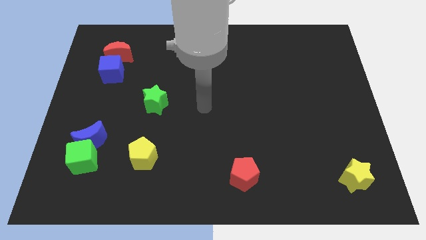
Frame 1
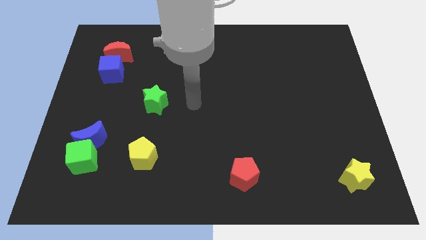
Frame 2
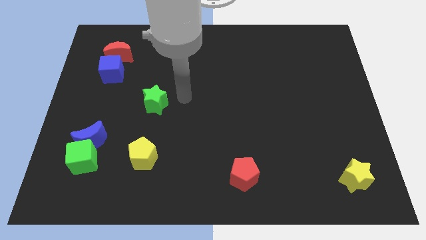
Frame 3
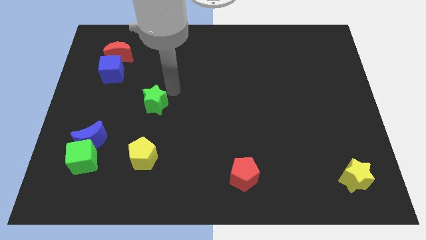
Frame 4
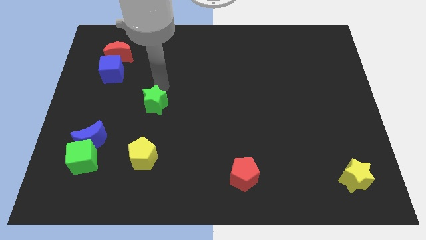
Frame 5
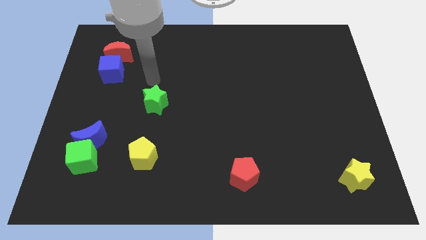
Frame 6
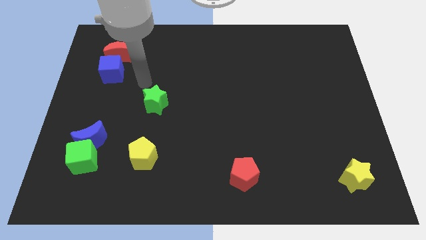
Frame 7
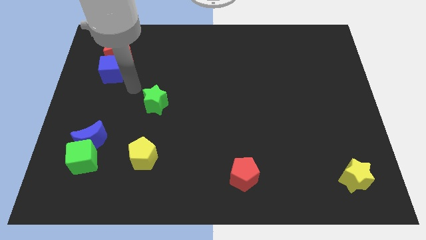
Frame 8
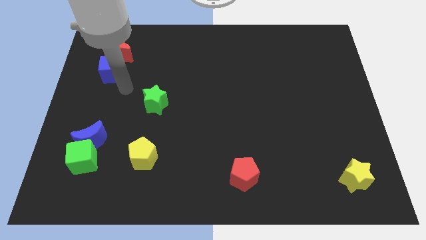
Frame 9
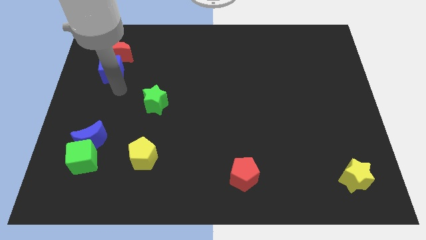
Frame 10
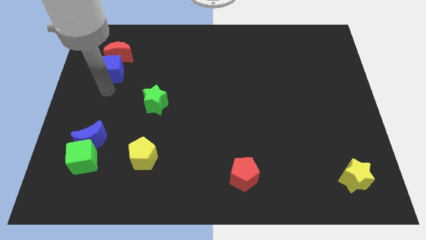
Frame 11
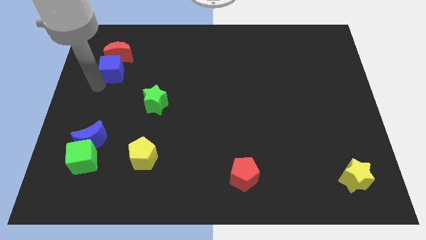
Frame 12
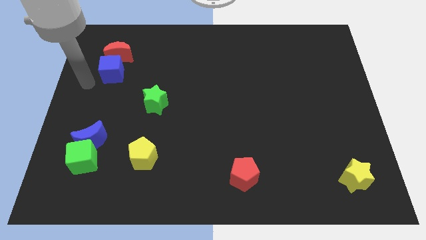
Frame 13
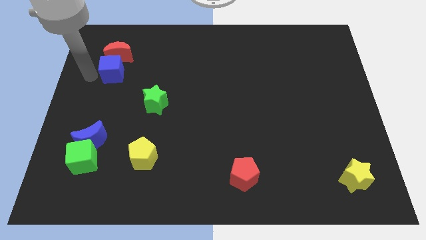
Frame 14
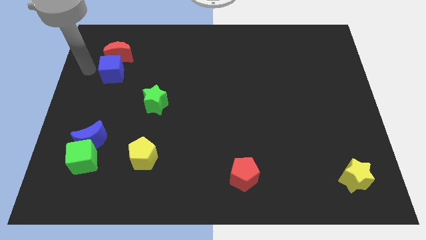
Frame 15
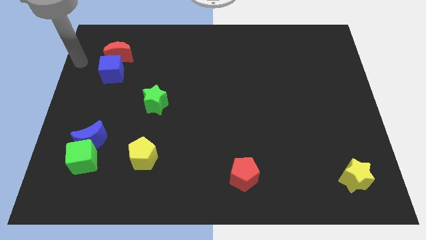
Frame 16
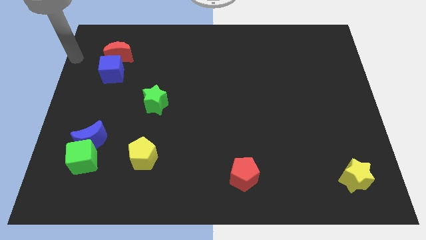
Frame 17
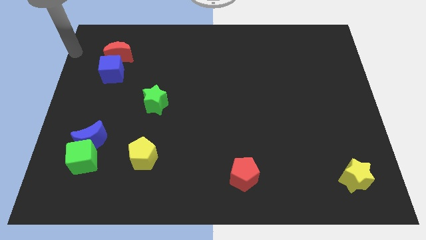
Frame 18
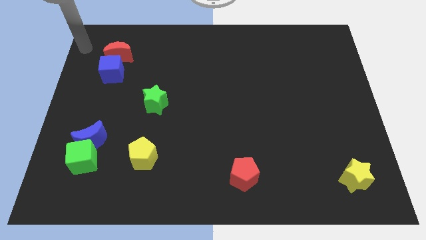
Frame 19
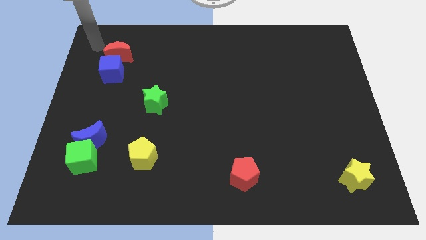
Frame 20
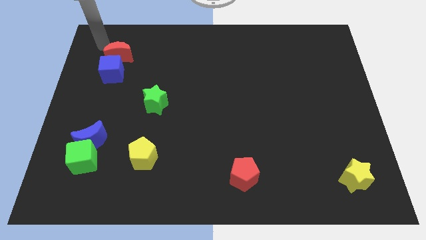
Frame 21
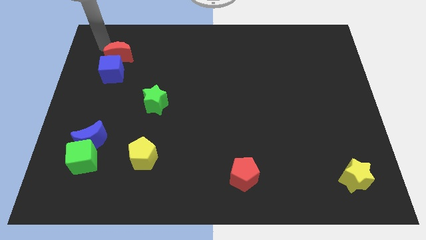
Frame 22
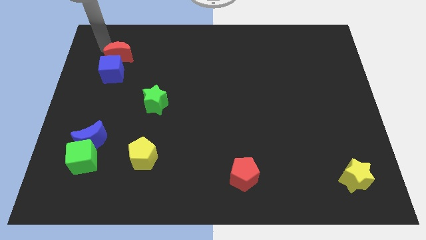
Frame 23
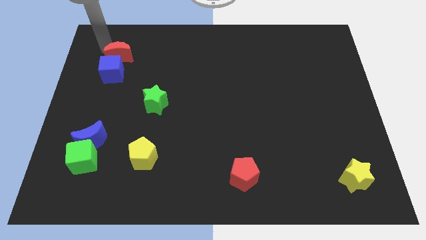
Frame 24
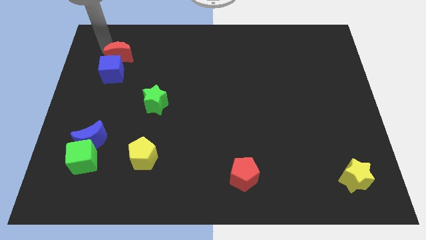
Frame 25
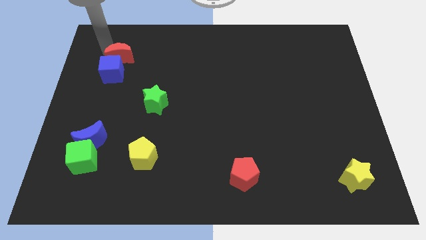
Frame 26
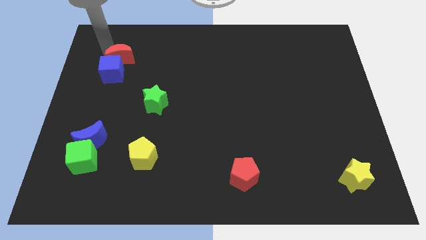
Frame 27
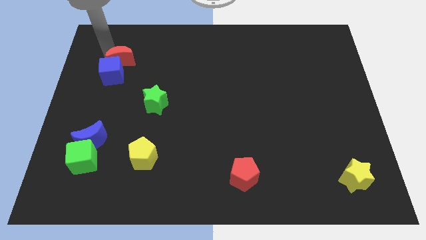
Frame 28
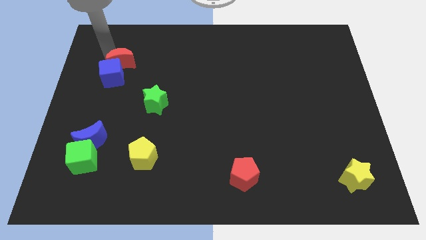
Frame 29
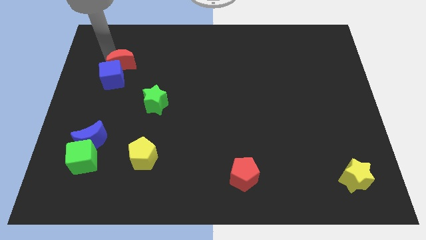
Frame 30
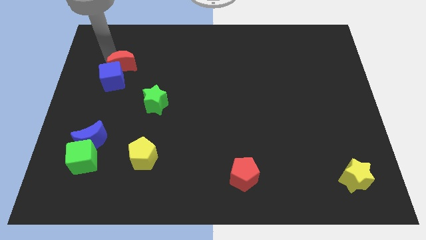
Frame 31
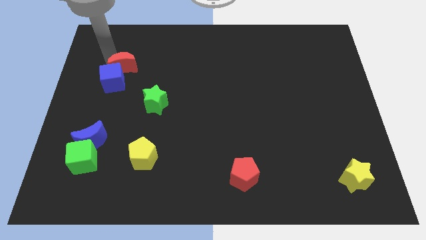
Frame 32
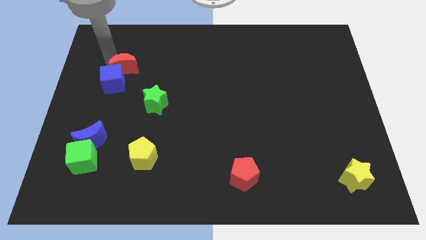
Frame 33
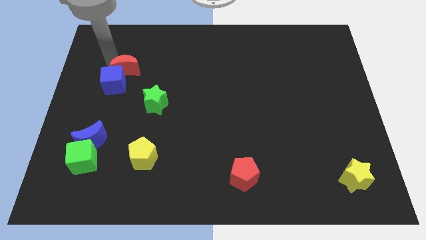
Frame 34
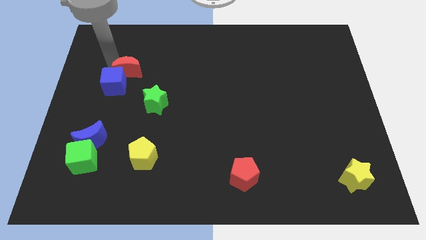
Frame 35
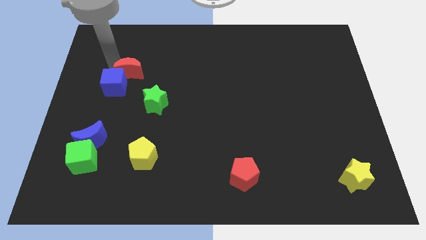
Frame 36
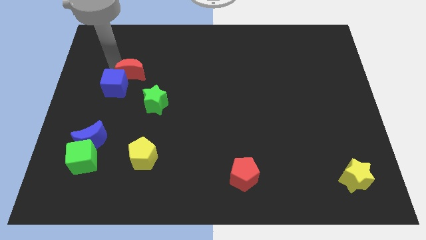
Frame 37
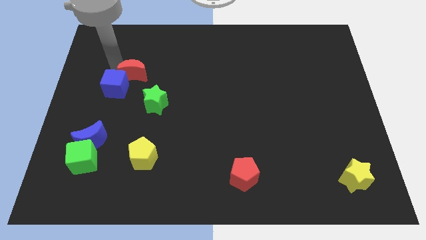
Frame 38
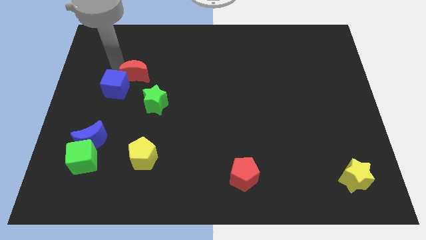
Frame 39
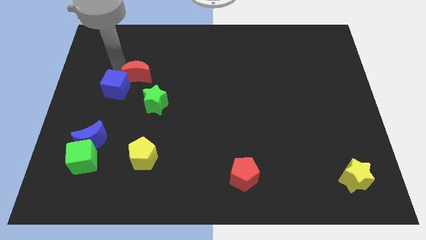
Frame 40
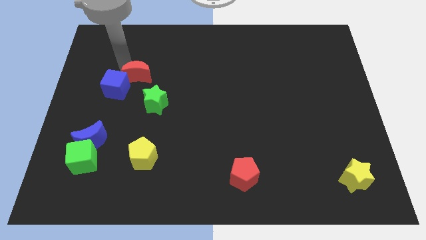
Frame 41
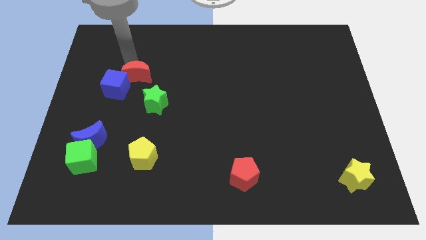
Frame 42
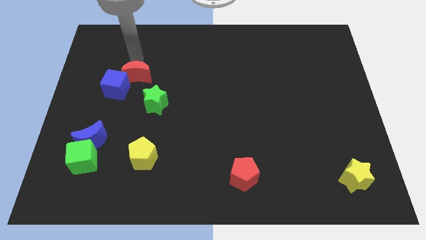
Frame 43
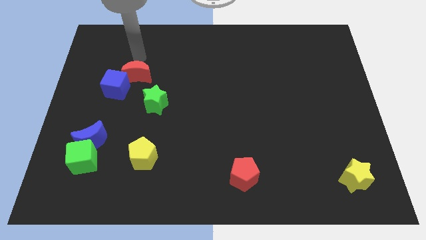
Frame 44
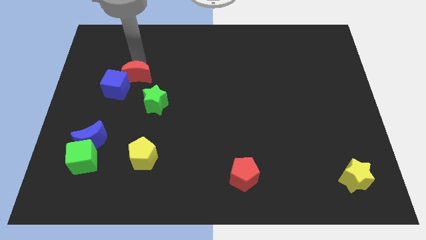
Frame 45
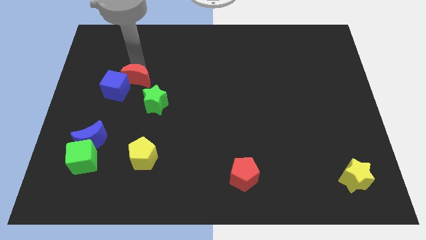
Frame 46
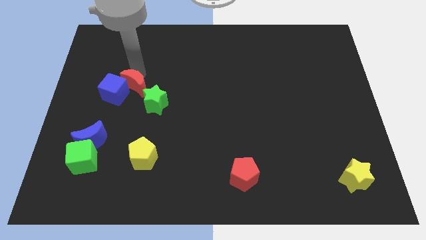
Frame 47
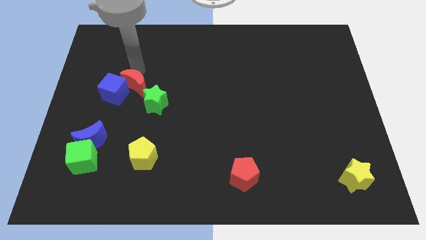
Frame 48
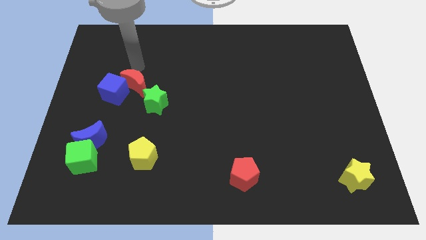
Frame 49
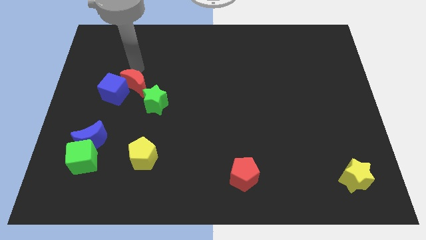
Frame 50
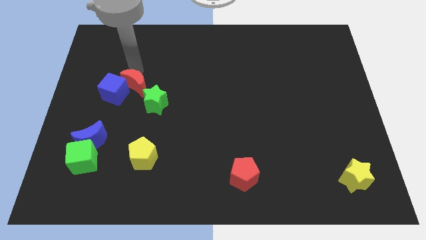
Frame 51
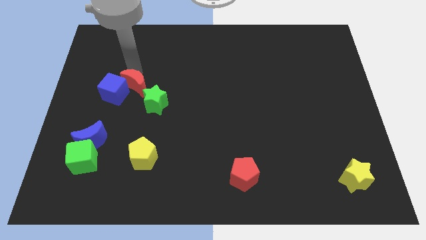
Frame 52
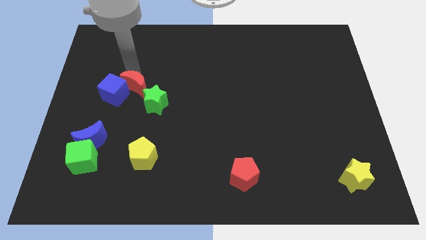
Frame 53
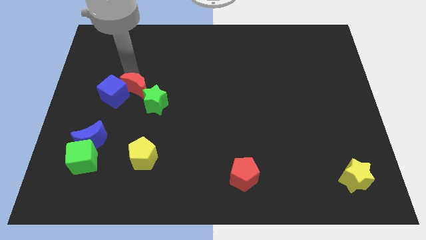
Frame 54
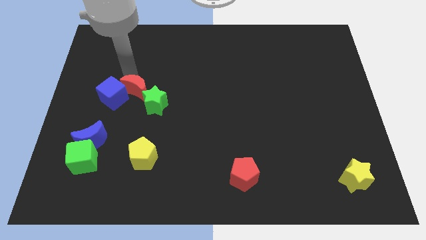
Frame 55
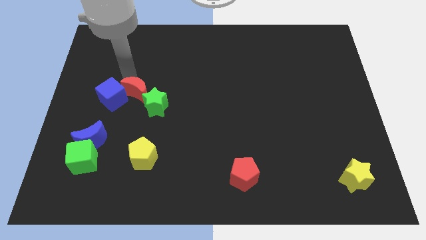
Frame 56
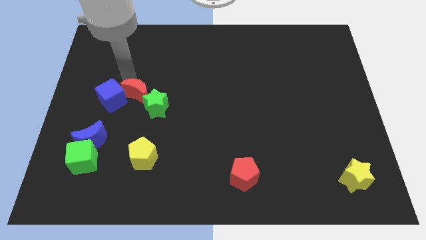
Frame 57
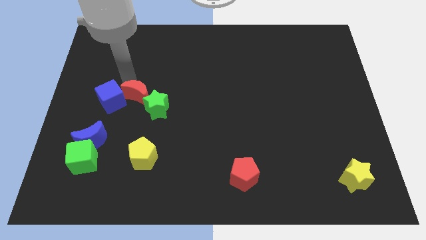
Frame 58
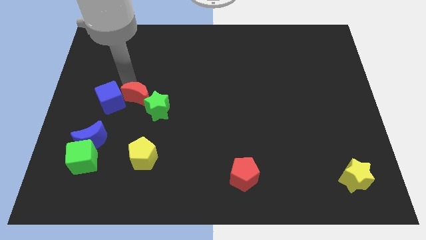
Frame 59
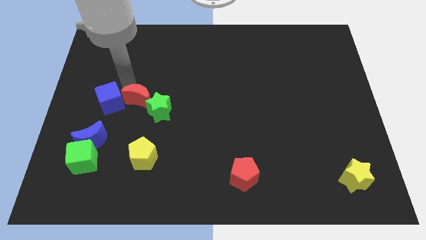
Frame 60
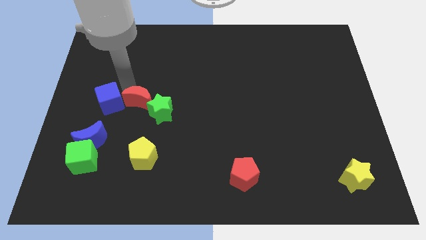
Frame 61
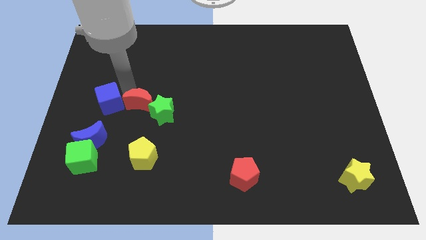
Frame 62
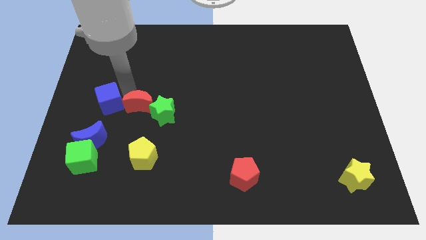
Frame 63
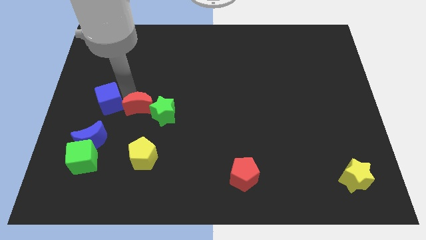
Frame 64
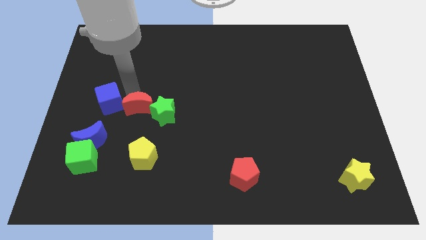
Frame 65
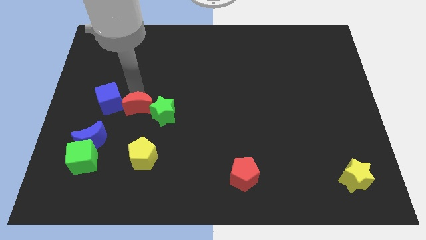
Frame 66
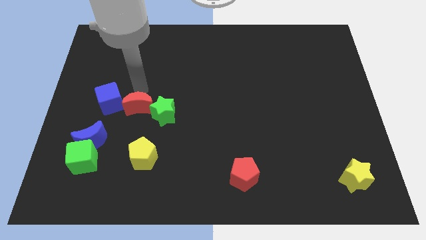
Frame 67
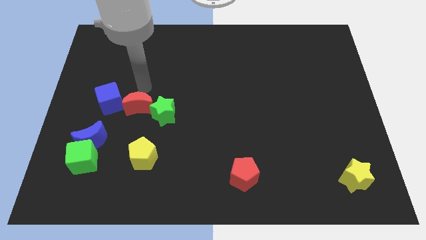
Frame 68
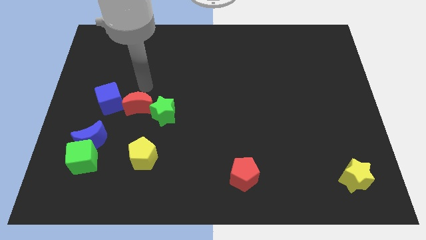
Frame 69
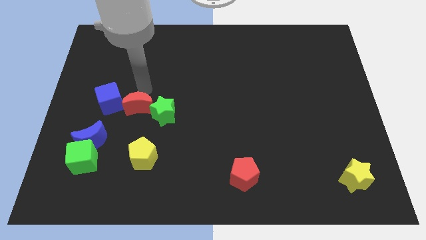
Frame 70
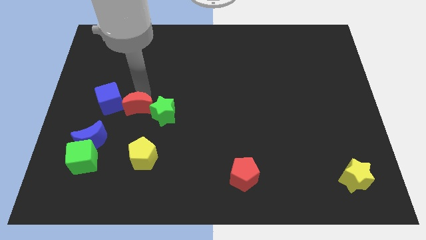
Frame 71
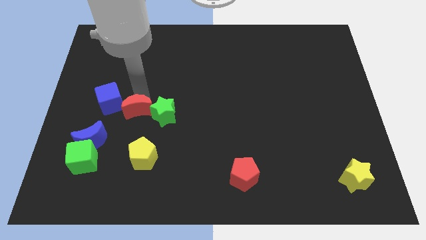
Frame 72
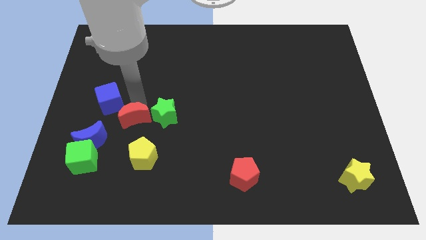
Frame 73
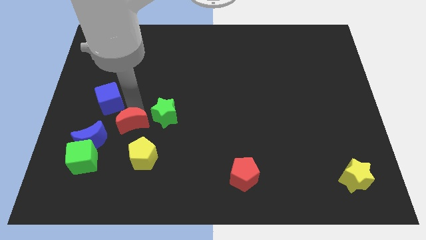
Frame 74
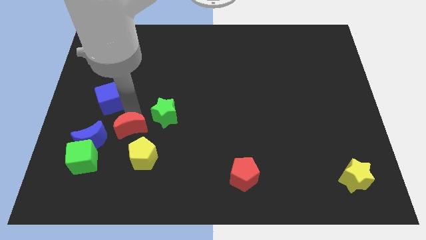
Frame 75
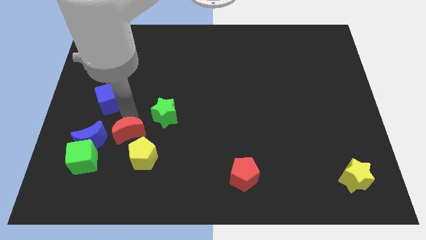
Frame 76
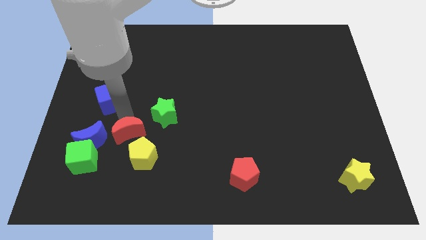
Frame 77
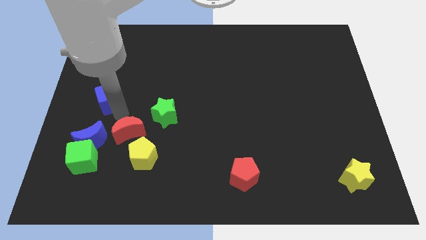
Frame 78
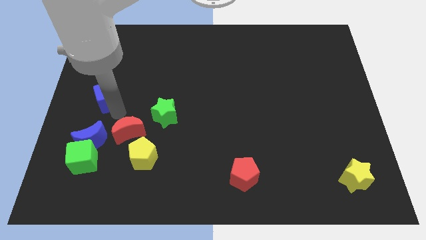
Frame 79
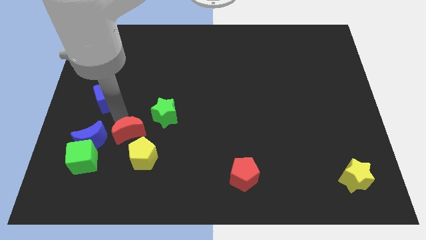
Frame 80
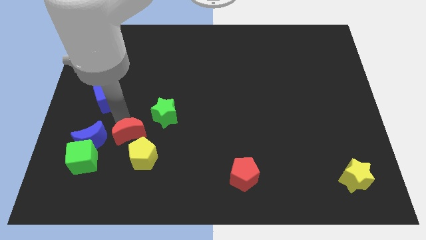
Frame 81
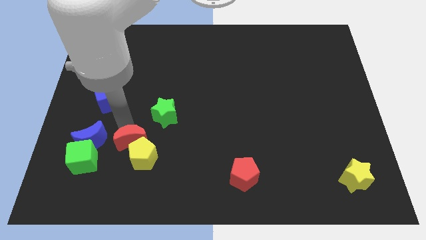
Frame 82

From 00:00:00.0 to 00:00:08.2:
put the red moon to the yellow pentagon
